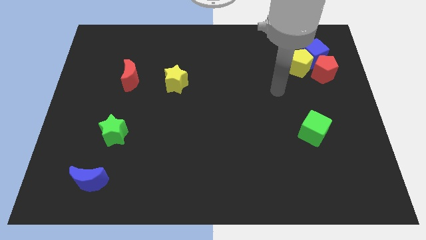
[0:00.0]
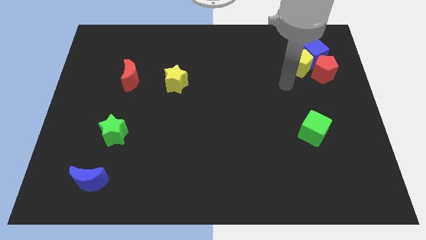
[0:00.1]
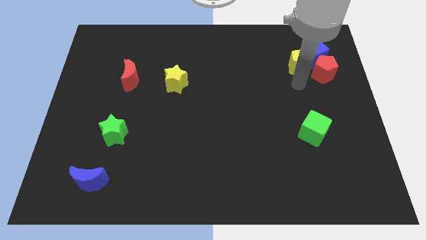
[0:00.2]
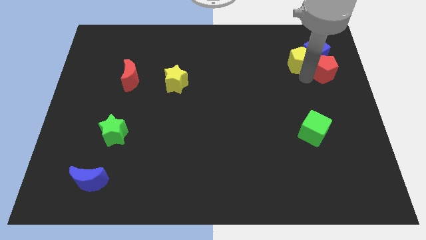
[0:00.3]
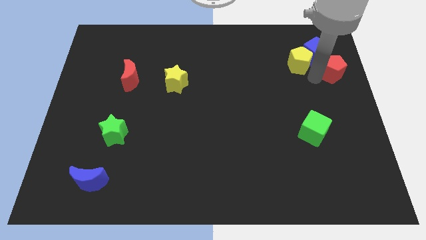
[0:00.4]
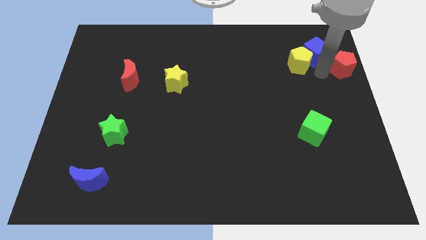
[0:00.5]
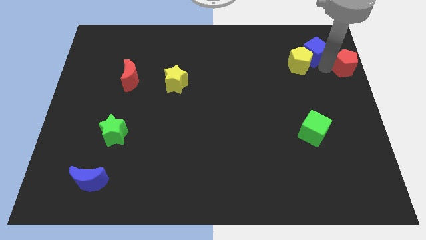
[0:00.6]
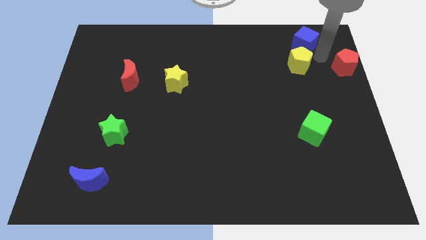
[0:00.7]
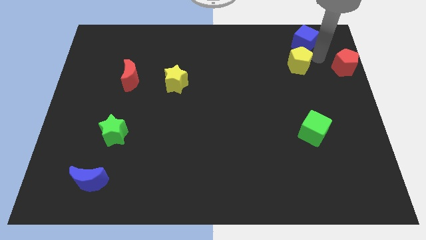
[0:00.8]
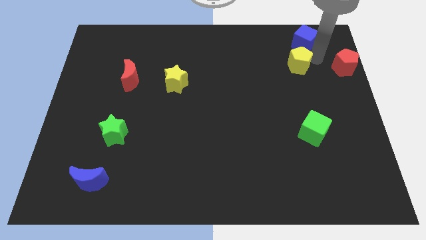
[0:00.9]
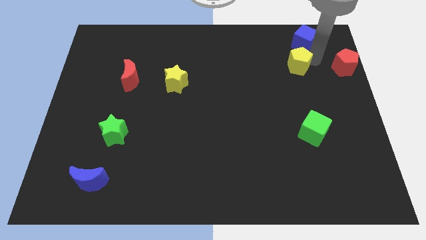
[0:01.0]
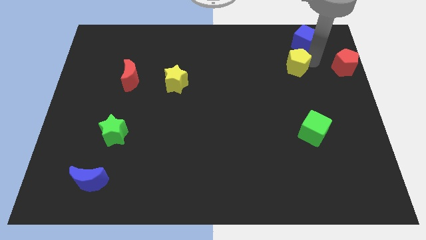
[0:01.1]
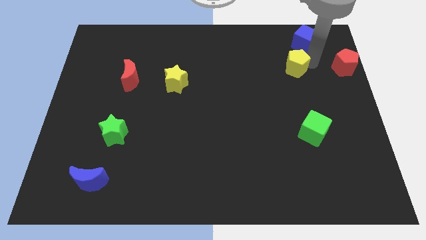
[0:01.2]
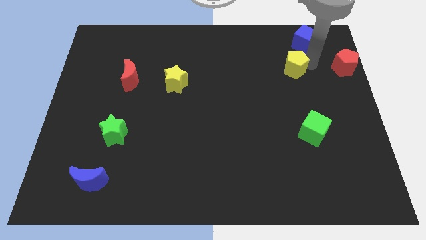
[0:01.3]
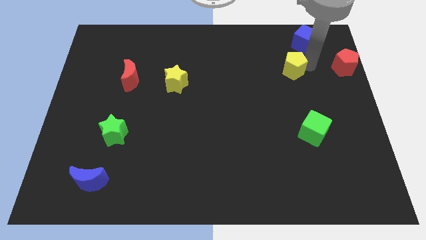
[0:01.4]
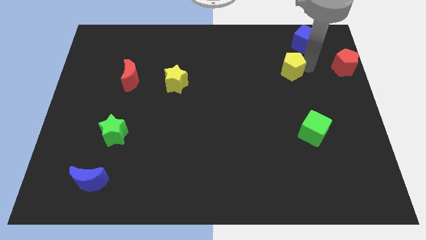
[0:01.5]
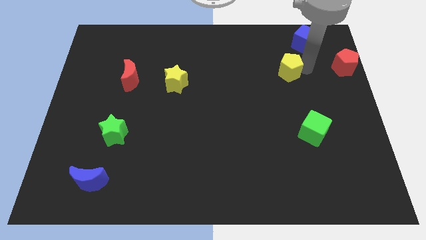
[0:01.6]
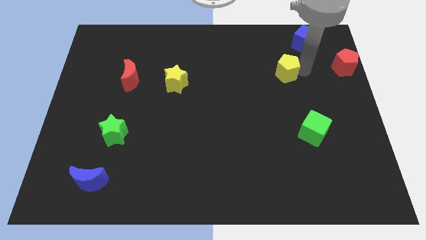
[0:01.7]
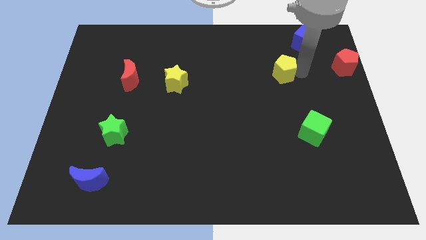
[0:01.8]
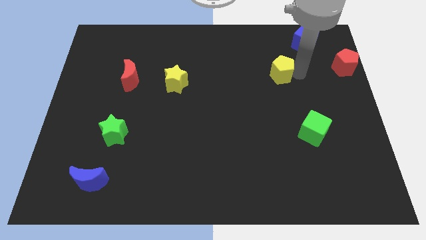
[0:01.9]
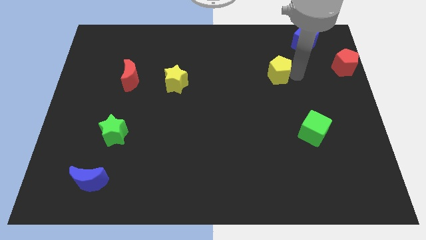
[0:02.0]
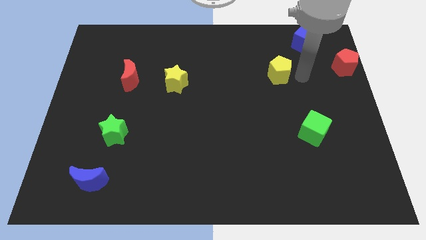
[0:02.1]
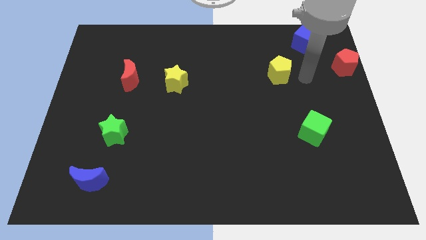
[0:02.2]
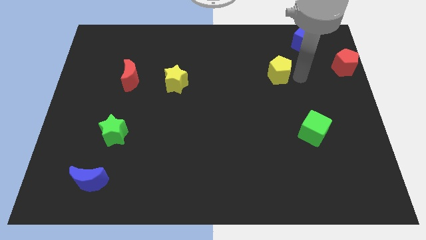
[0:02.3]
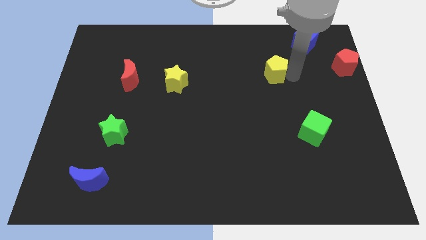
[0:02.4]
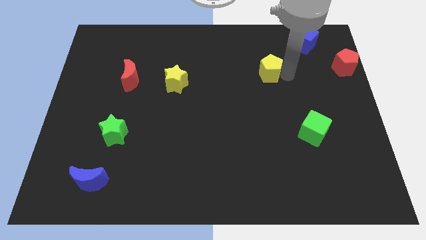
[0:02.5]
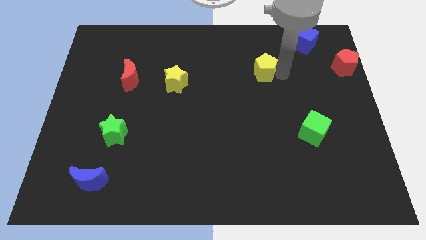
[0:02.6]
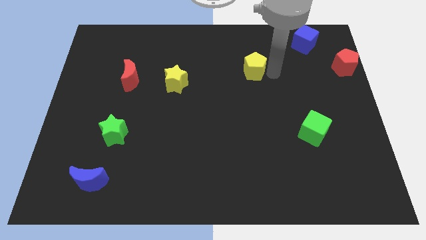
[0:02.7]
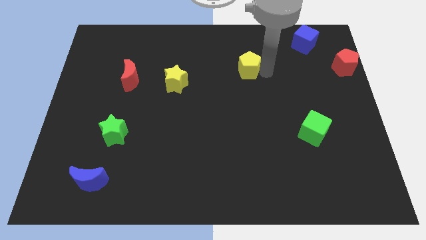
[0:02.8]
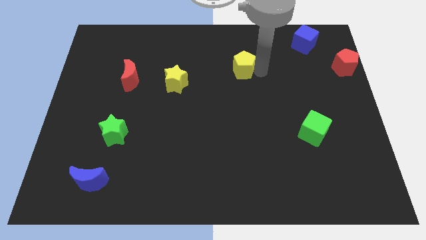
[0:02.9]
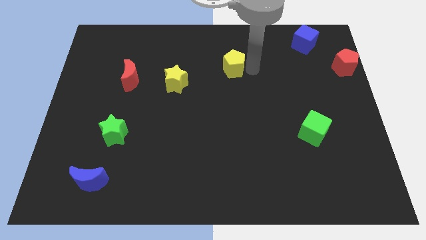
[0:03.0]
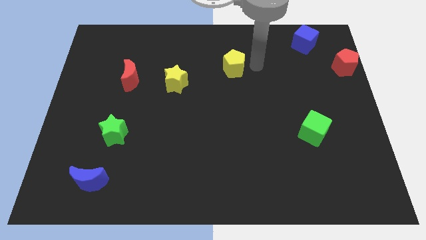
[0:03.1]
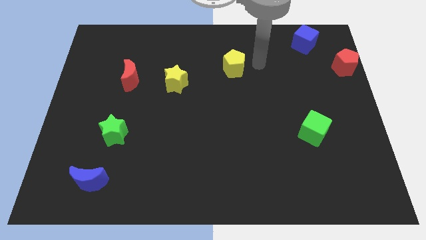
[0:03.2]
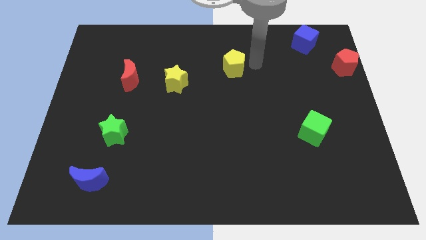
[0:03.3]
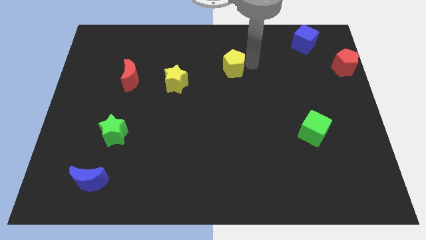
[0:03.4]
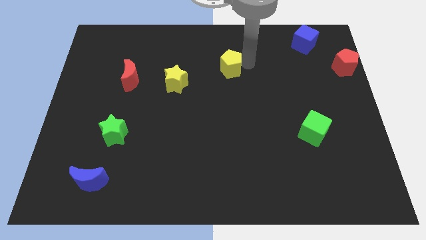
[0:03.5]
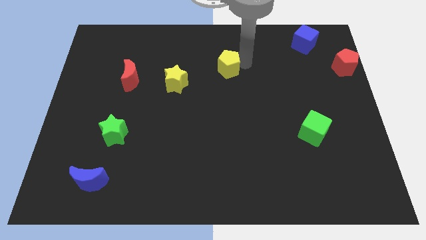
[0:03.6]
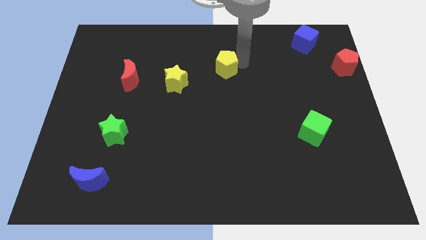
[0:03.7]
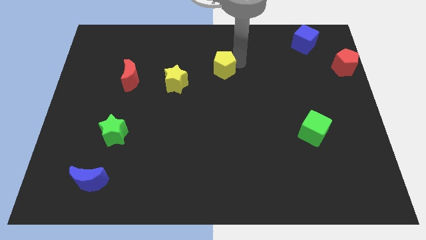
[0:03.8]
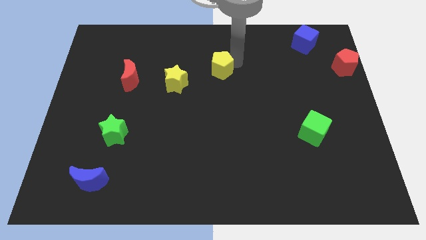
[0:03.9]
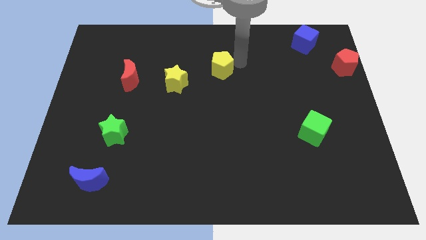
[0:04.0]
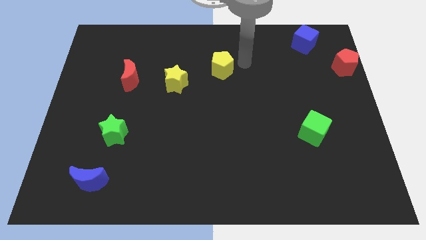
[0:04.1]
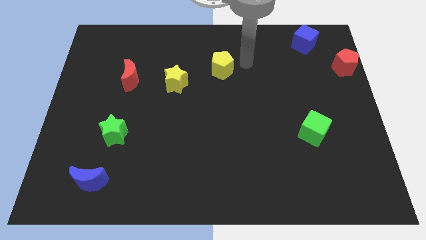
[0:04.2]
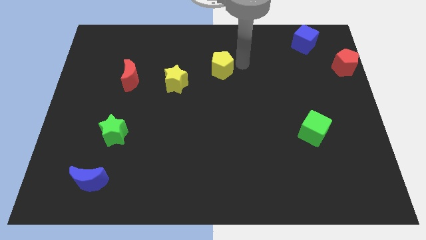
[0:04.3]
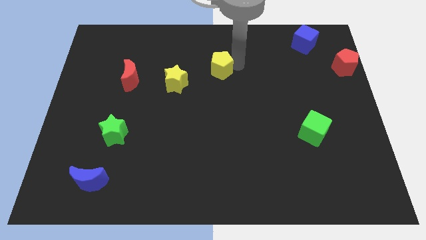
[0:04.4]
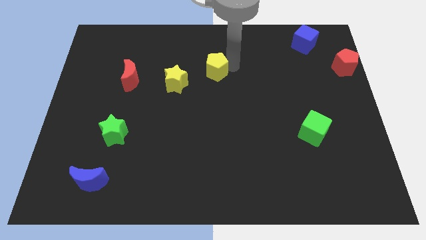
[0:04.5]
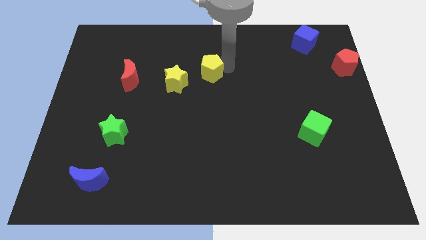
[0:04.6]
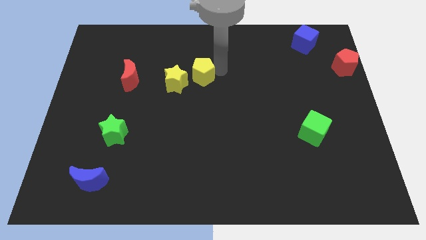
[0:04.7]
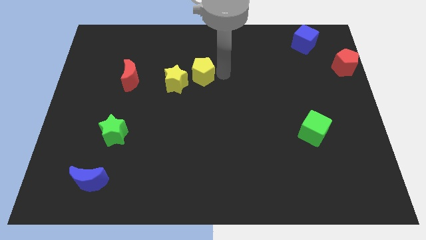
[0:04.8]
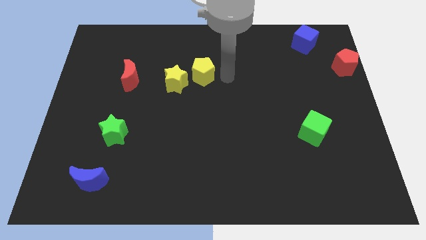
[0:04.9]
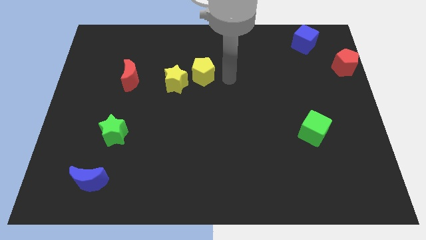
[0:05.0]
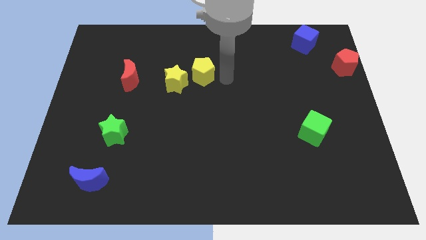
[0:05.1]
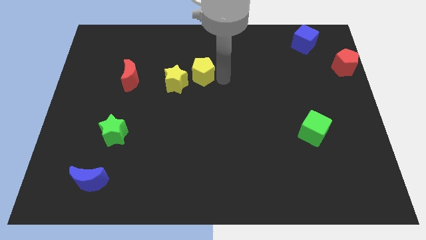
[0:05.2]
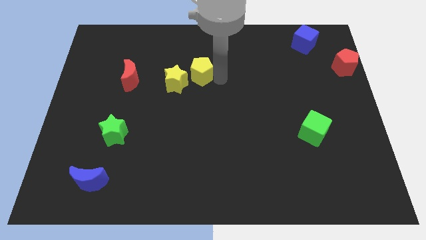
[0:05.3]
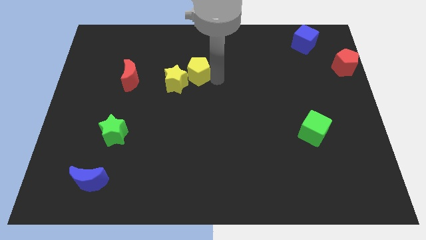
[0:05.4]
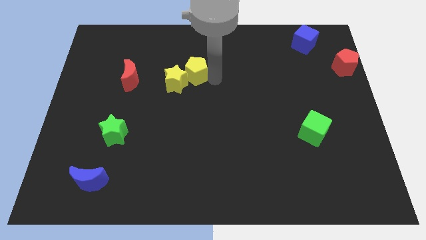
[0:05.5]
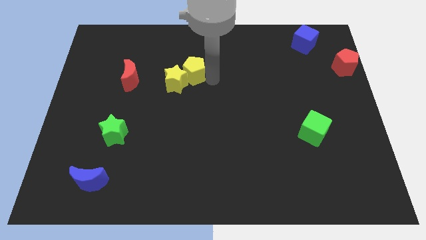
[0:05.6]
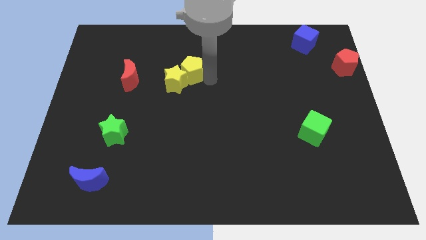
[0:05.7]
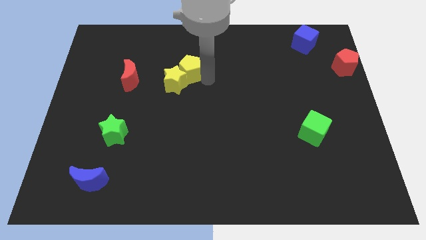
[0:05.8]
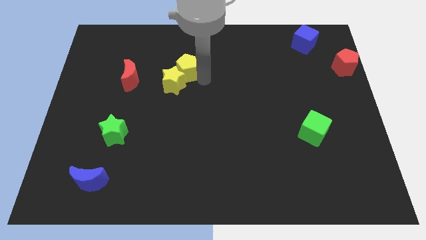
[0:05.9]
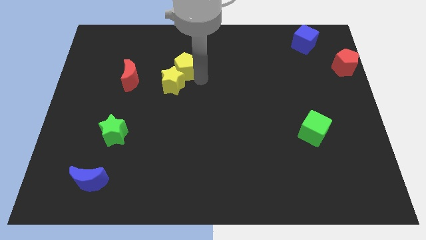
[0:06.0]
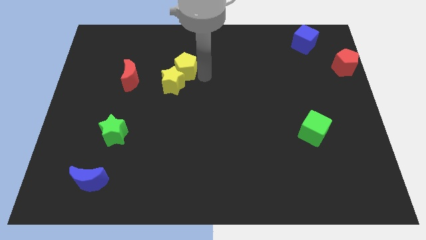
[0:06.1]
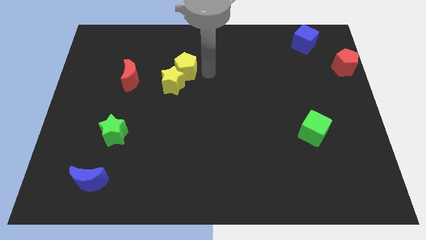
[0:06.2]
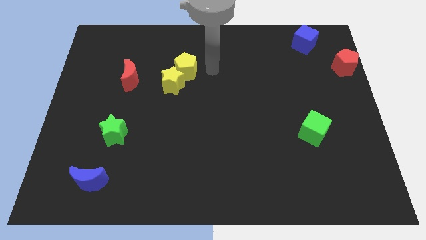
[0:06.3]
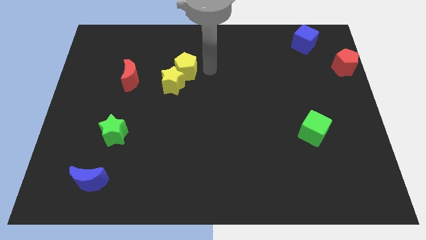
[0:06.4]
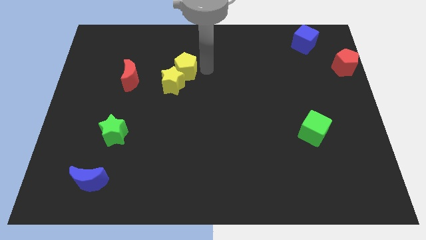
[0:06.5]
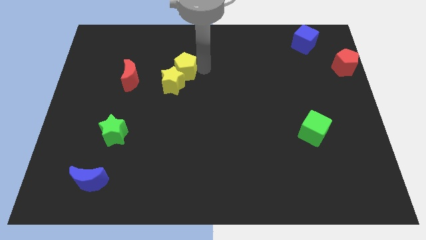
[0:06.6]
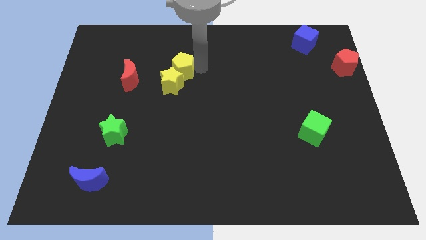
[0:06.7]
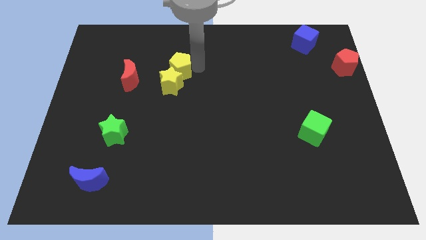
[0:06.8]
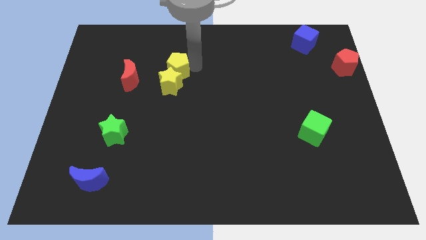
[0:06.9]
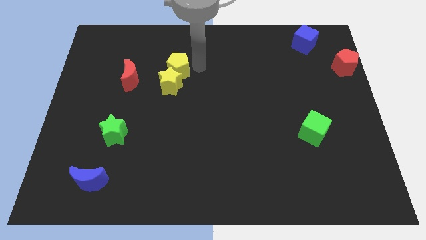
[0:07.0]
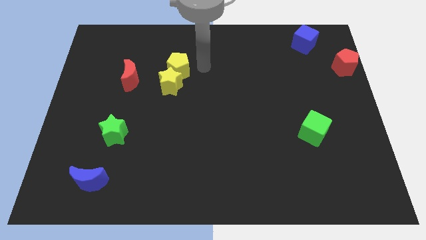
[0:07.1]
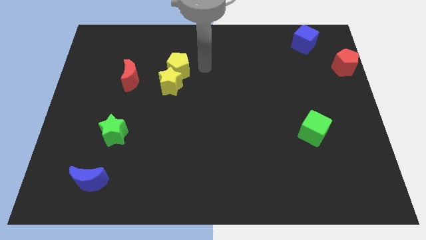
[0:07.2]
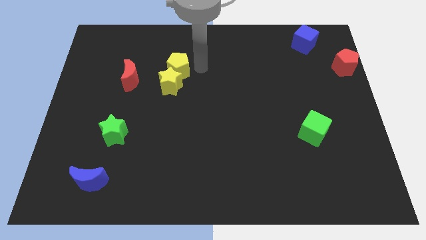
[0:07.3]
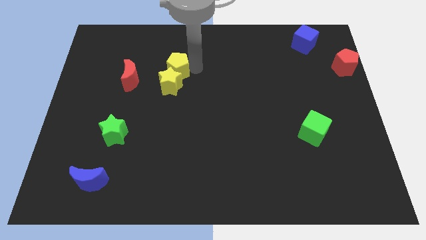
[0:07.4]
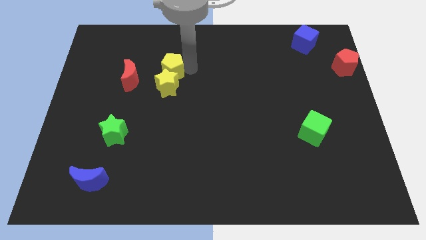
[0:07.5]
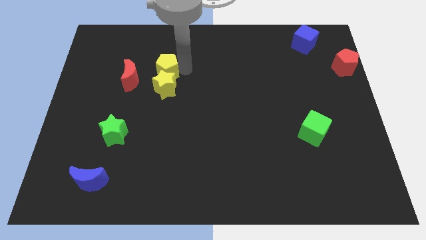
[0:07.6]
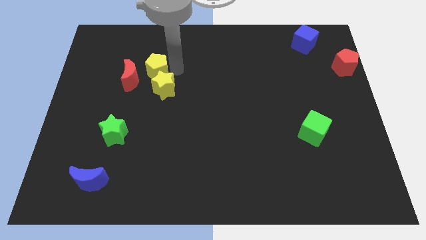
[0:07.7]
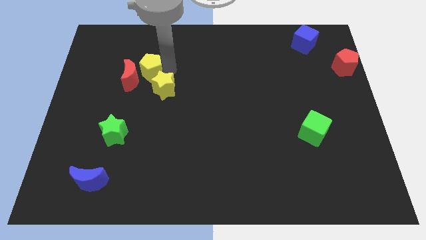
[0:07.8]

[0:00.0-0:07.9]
move the yellow pentagon towards the red moon
